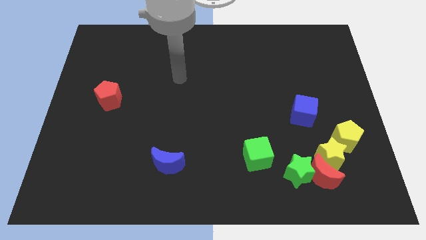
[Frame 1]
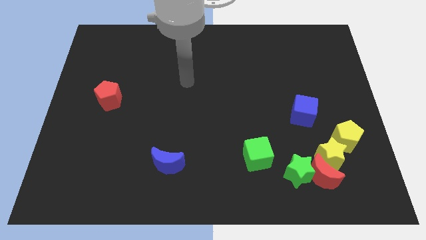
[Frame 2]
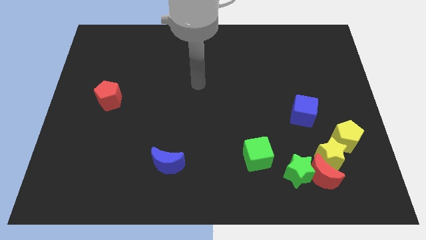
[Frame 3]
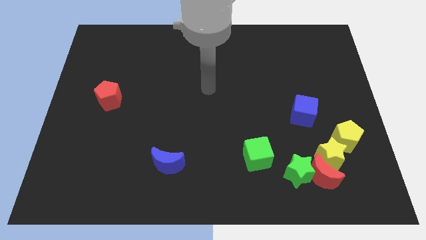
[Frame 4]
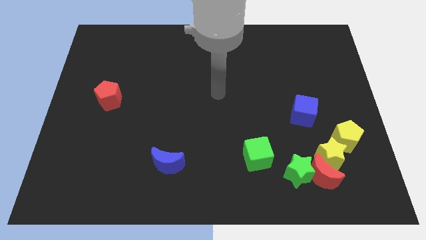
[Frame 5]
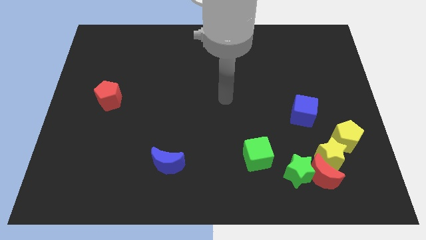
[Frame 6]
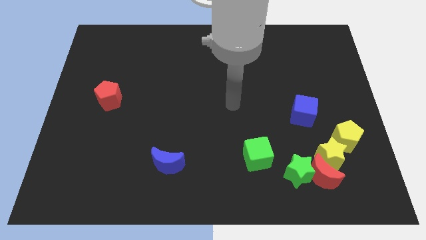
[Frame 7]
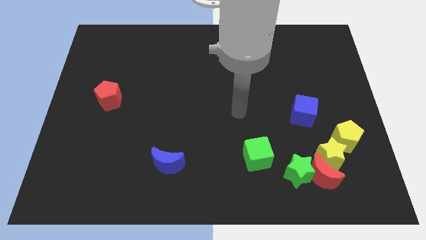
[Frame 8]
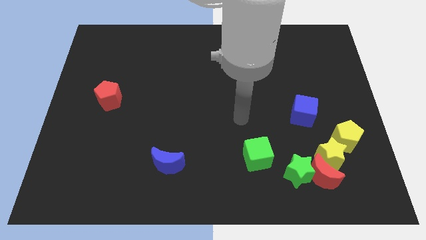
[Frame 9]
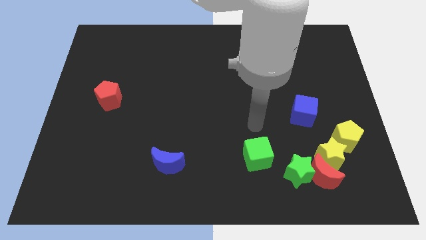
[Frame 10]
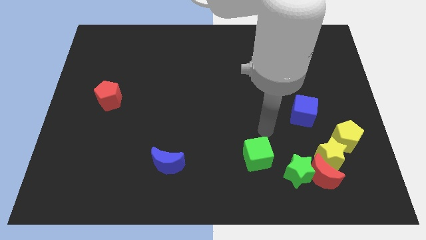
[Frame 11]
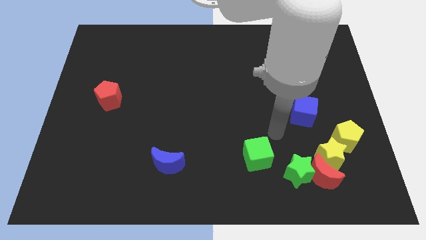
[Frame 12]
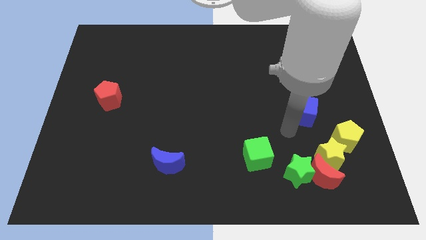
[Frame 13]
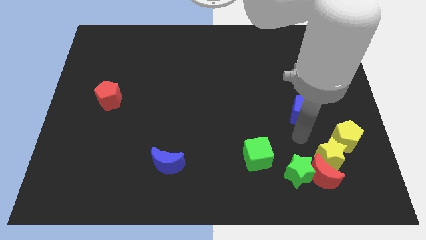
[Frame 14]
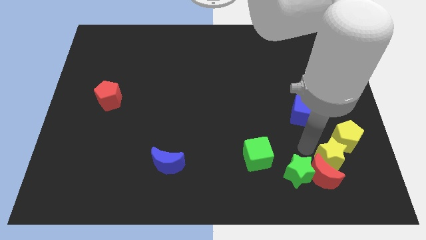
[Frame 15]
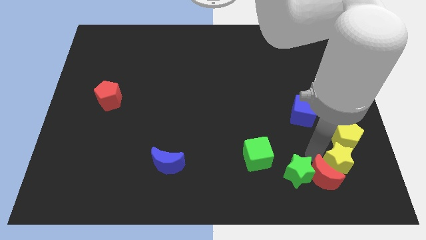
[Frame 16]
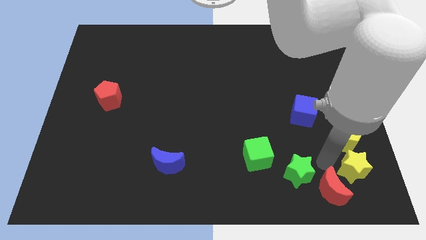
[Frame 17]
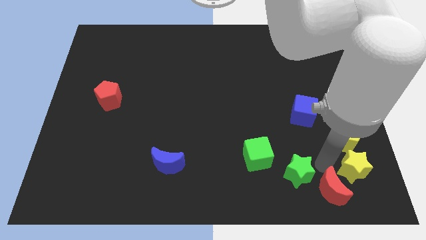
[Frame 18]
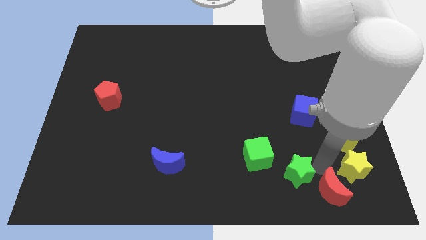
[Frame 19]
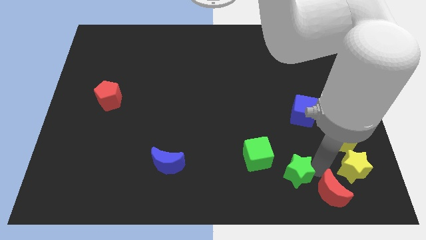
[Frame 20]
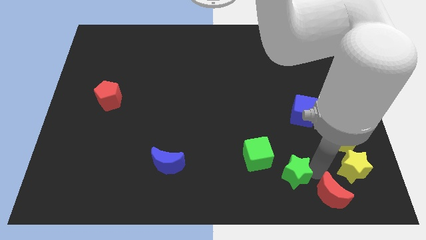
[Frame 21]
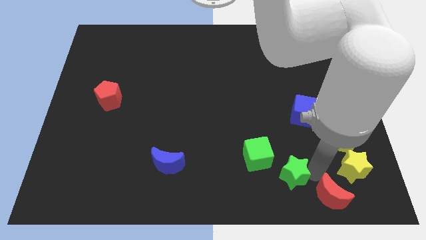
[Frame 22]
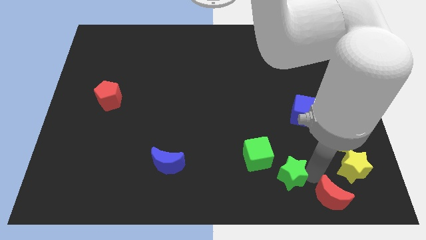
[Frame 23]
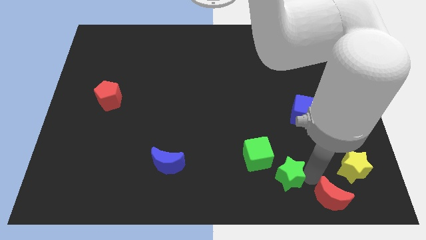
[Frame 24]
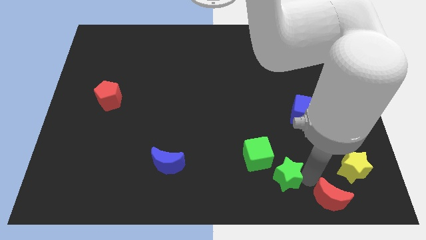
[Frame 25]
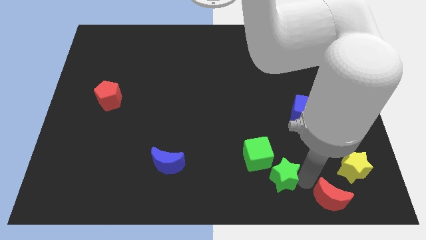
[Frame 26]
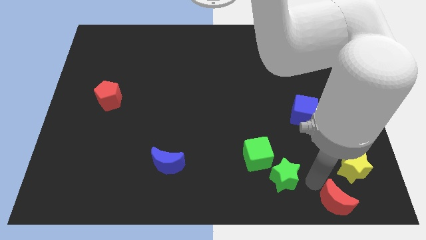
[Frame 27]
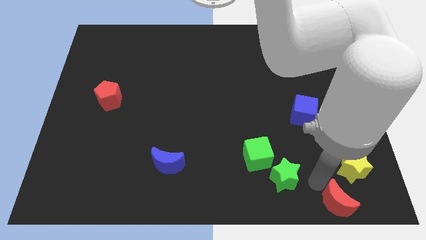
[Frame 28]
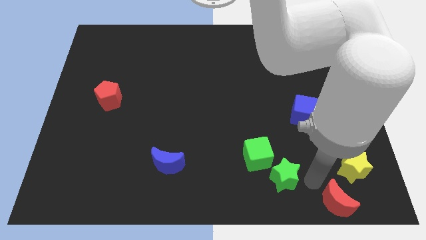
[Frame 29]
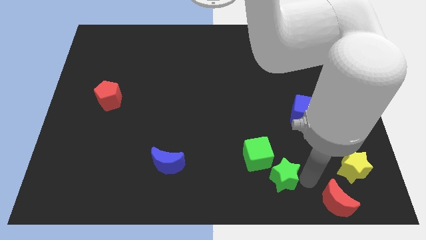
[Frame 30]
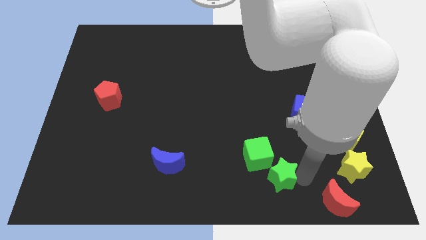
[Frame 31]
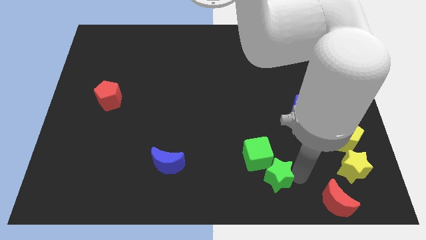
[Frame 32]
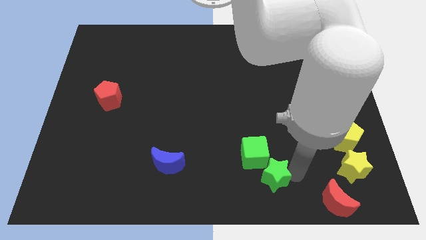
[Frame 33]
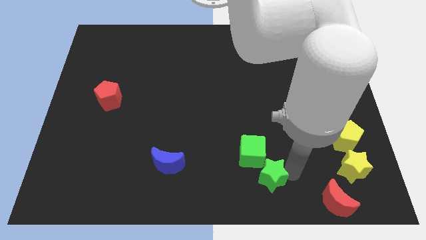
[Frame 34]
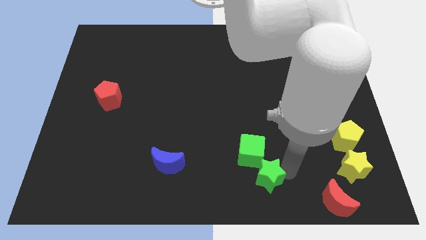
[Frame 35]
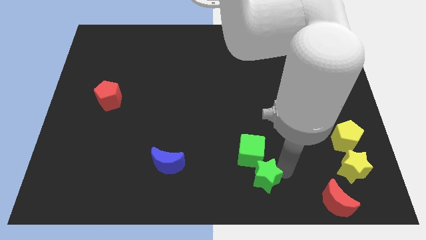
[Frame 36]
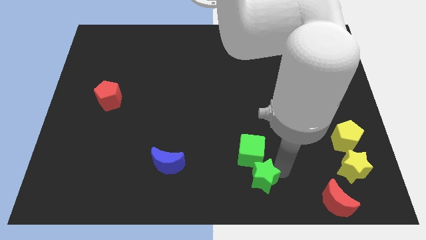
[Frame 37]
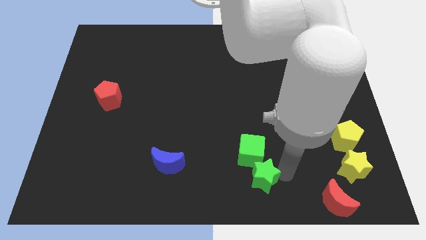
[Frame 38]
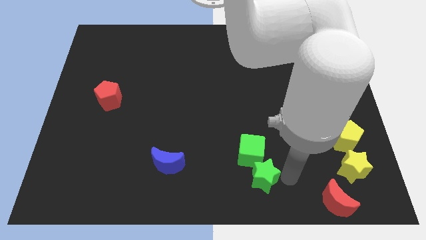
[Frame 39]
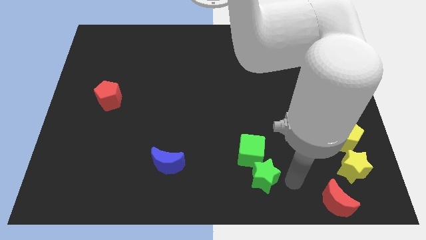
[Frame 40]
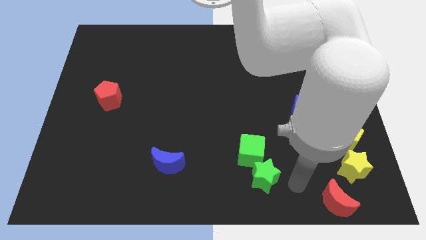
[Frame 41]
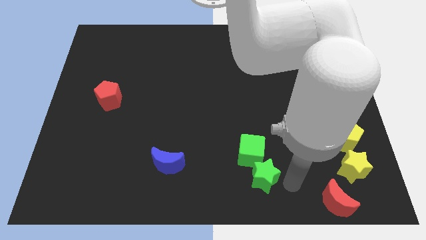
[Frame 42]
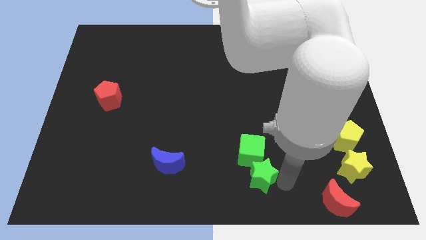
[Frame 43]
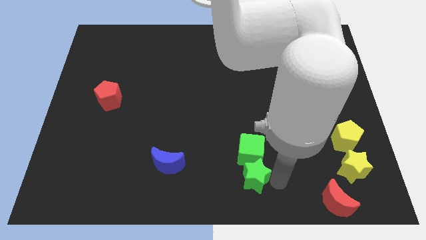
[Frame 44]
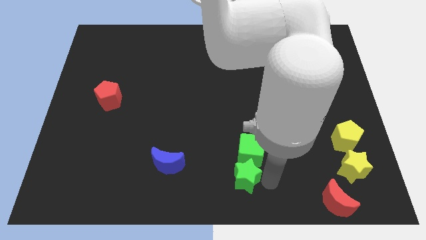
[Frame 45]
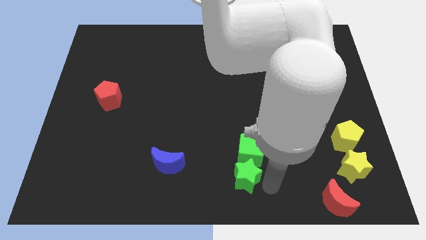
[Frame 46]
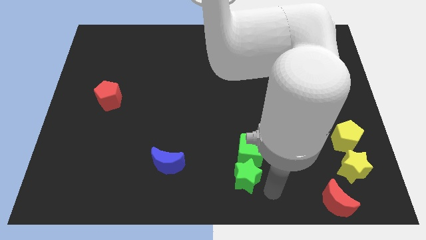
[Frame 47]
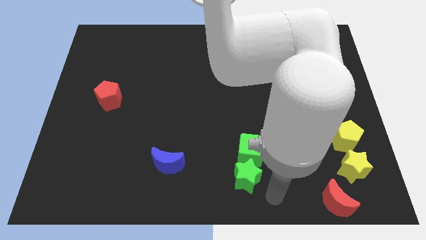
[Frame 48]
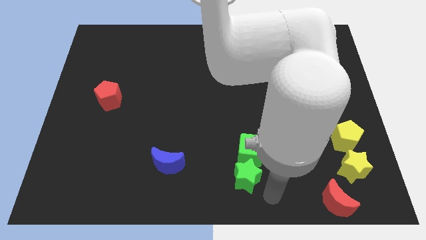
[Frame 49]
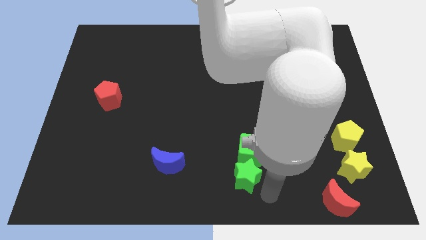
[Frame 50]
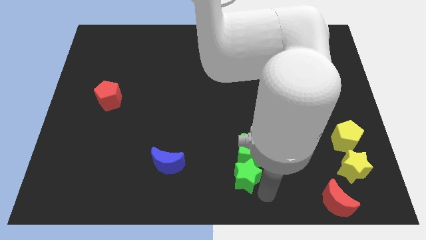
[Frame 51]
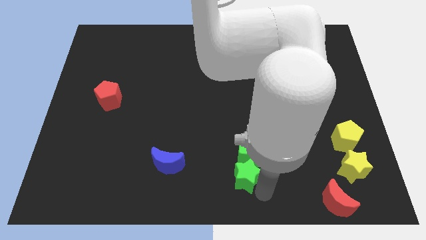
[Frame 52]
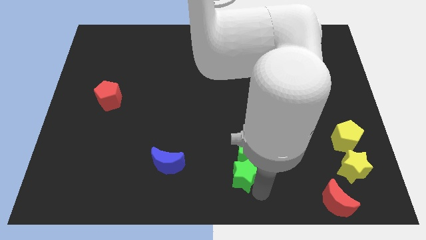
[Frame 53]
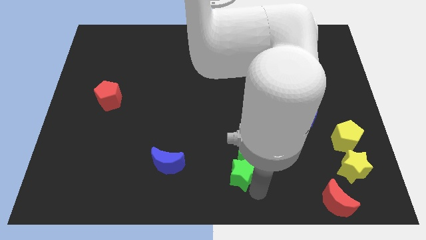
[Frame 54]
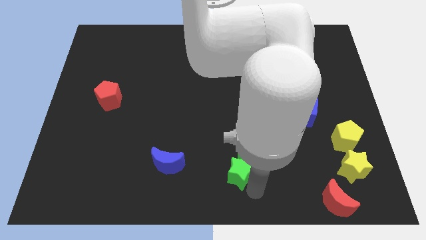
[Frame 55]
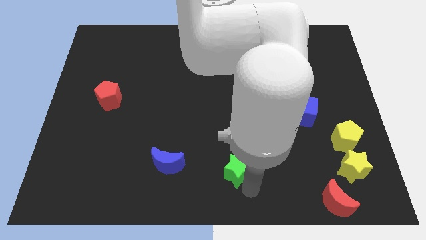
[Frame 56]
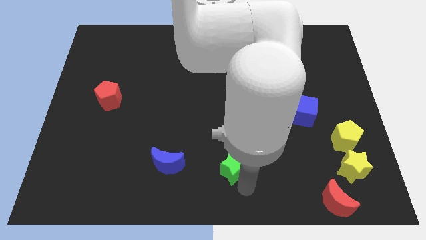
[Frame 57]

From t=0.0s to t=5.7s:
push the green star to the left side of the green cube

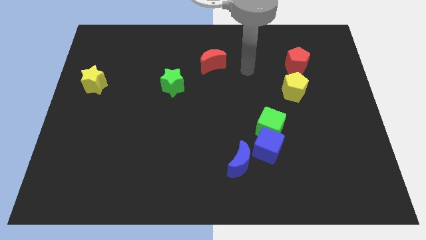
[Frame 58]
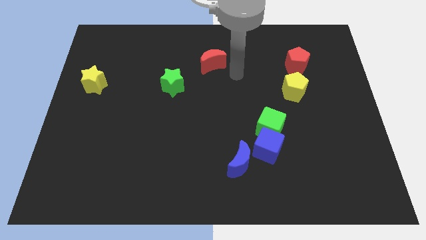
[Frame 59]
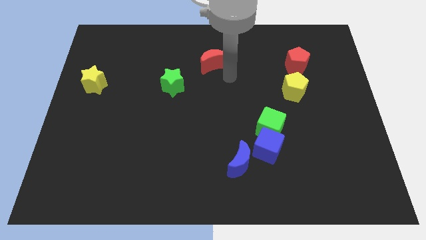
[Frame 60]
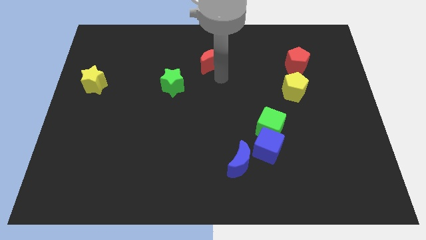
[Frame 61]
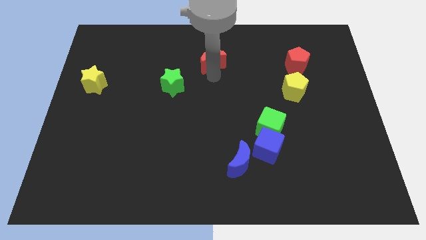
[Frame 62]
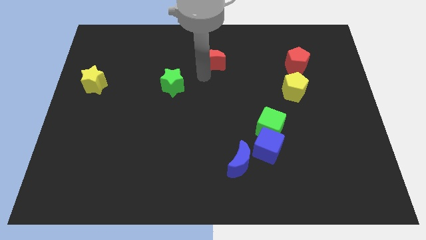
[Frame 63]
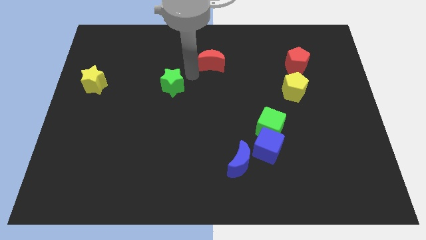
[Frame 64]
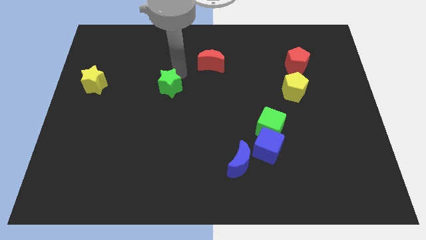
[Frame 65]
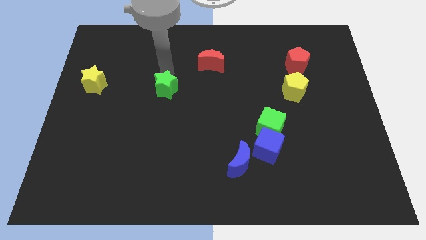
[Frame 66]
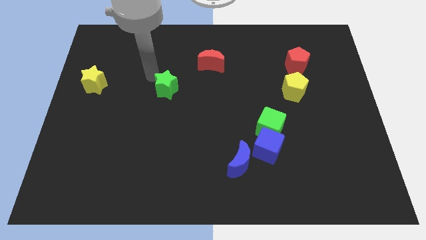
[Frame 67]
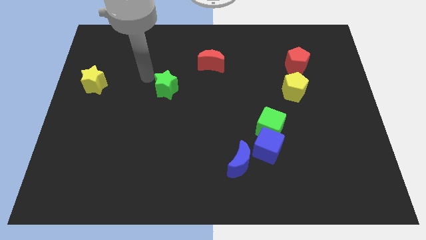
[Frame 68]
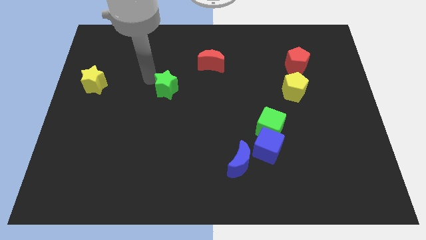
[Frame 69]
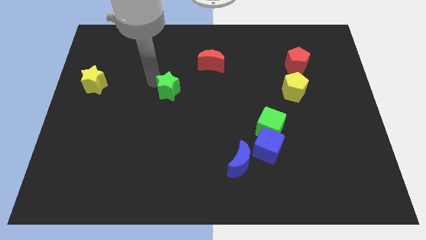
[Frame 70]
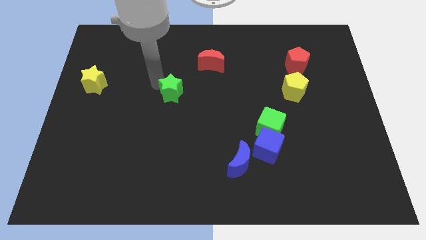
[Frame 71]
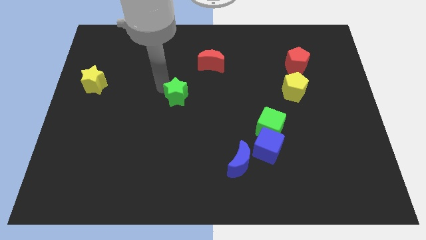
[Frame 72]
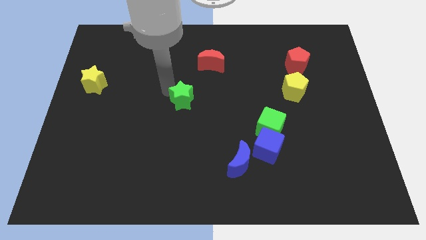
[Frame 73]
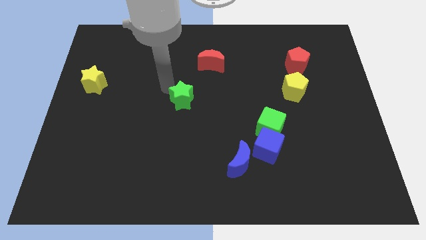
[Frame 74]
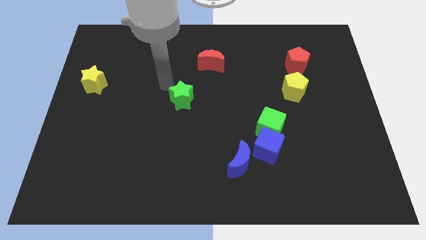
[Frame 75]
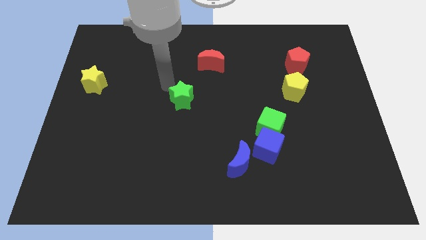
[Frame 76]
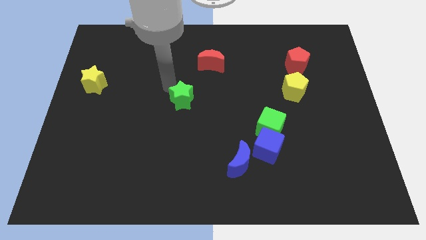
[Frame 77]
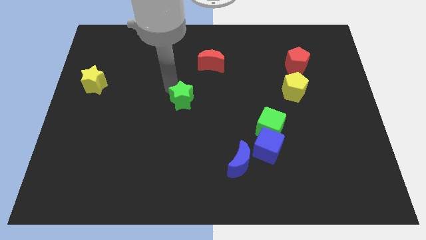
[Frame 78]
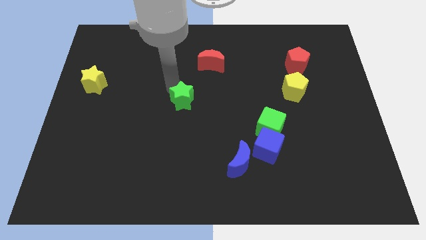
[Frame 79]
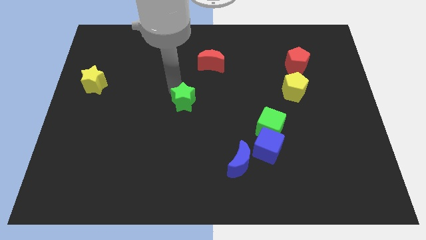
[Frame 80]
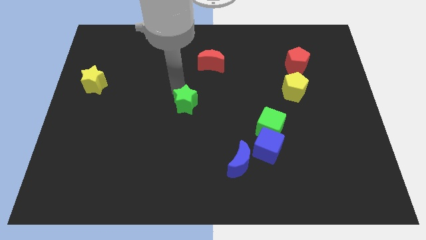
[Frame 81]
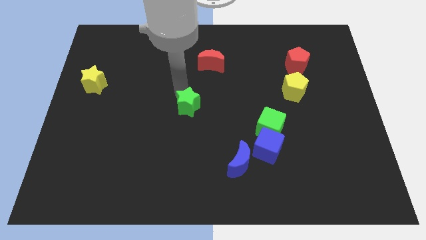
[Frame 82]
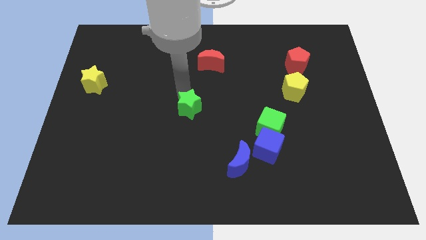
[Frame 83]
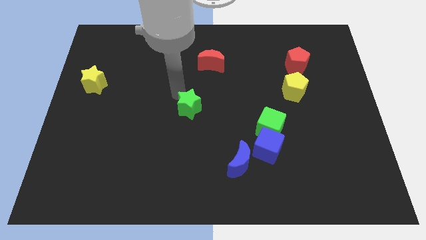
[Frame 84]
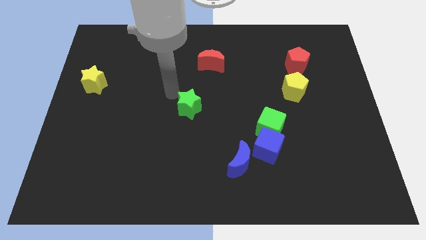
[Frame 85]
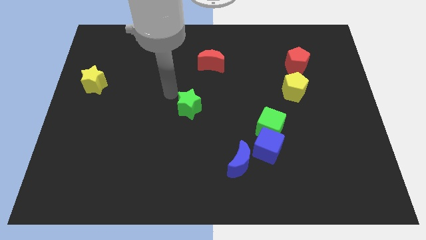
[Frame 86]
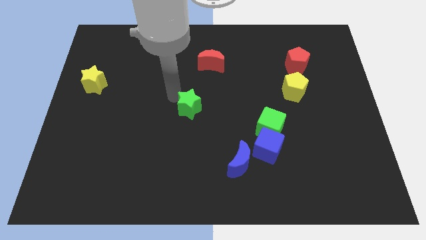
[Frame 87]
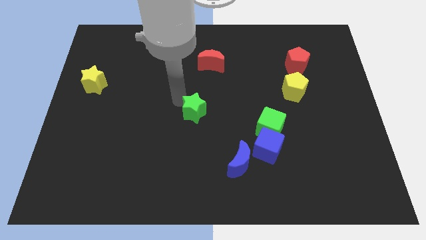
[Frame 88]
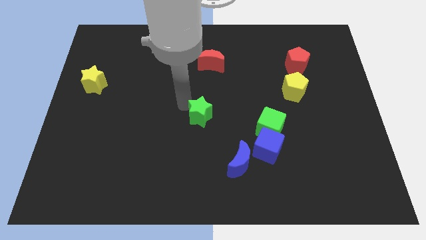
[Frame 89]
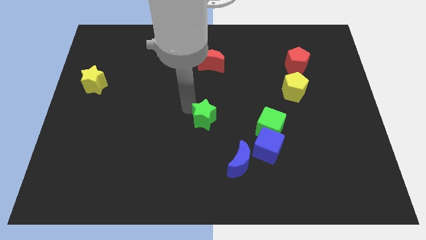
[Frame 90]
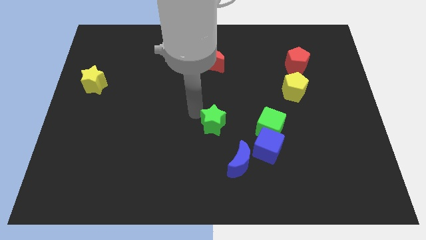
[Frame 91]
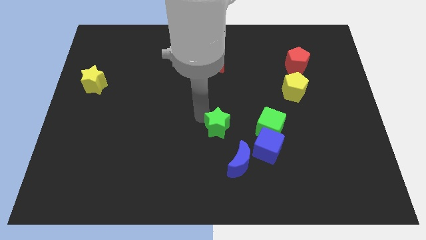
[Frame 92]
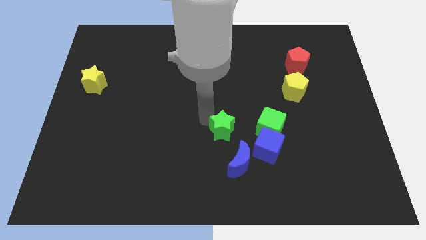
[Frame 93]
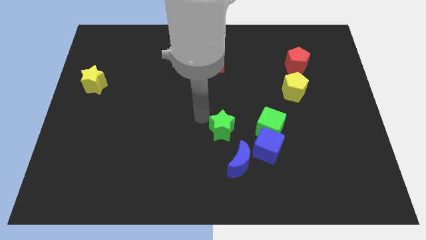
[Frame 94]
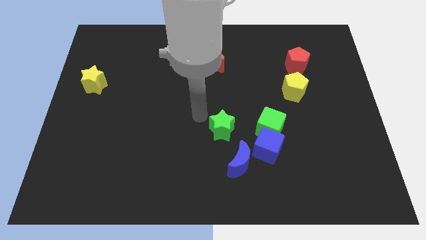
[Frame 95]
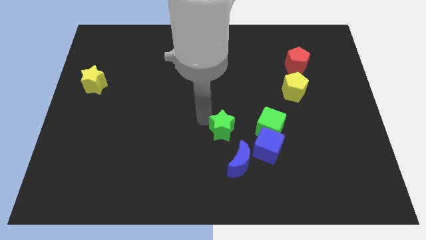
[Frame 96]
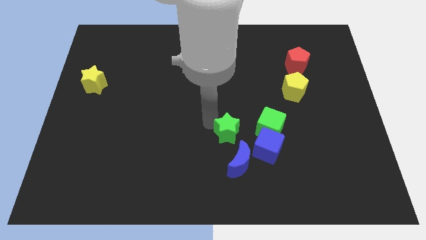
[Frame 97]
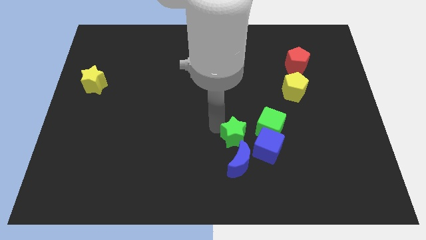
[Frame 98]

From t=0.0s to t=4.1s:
put the green star to the bottom left side of the green cube
